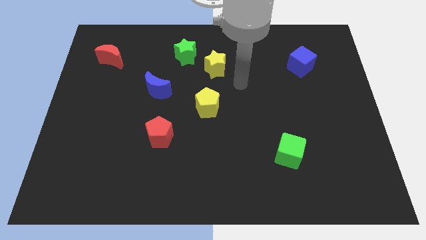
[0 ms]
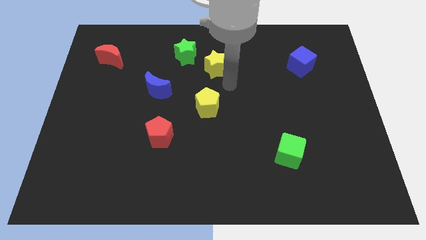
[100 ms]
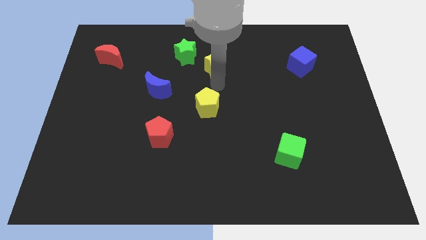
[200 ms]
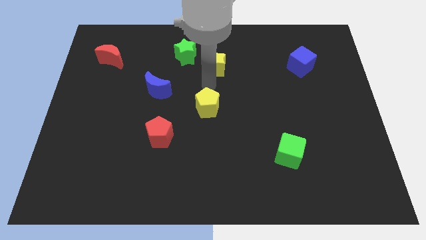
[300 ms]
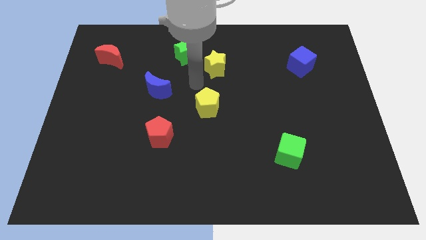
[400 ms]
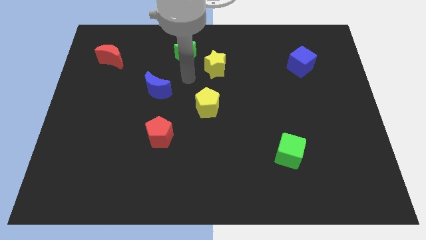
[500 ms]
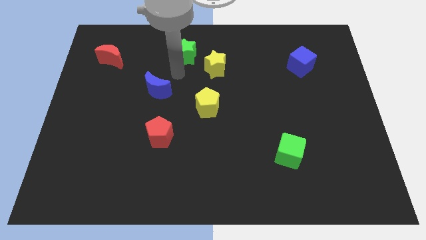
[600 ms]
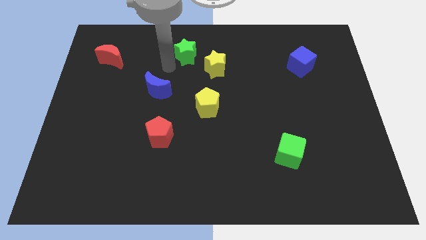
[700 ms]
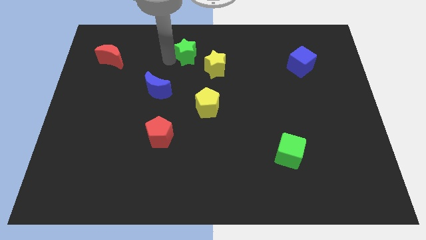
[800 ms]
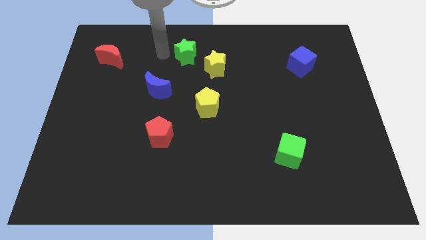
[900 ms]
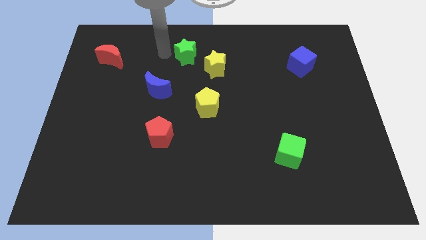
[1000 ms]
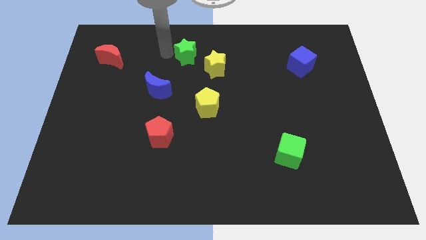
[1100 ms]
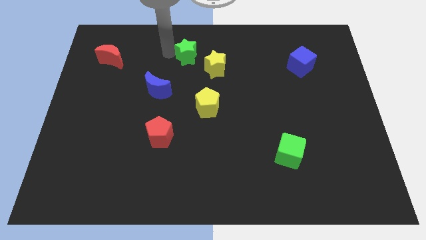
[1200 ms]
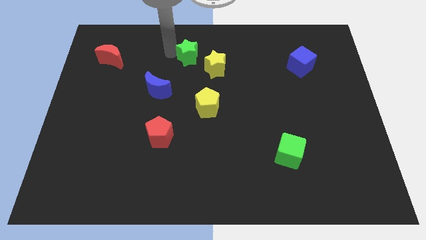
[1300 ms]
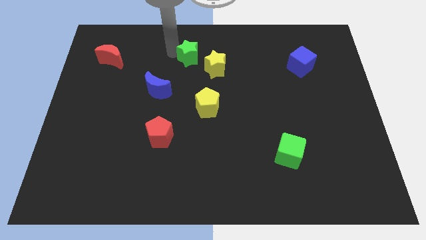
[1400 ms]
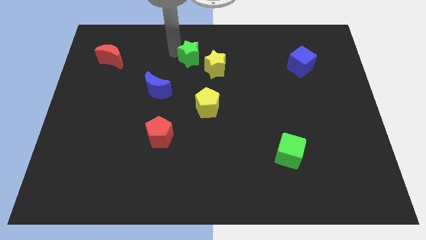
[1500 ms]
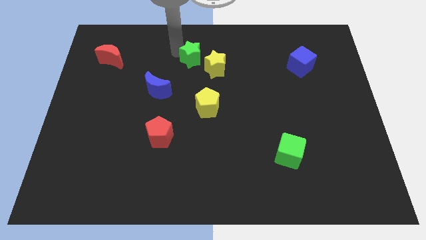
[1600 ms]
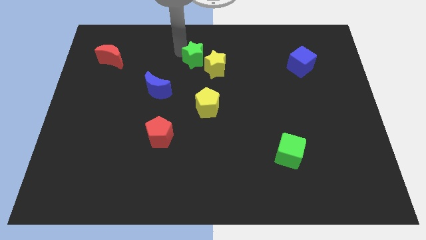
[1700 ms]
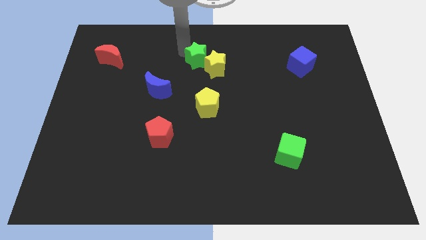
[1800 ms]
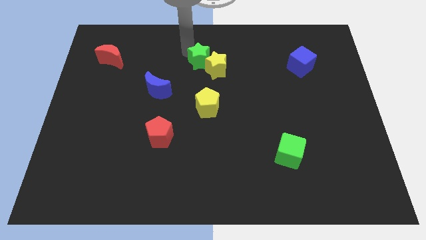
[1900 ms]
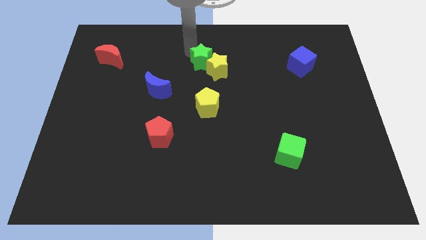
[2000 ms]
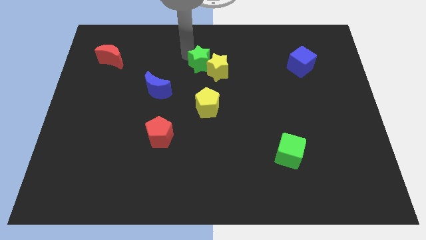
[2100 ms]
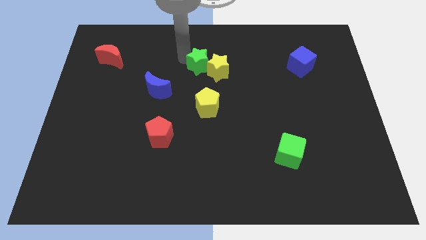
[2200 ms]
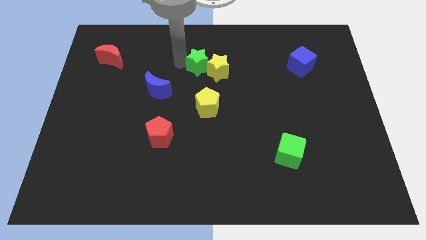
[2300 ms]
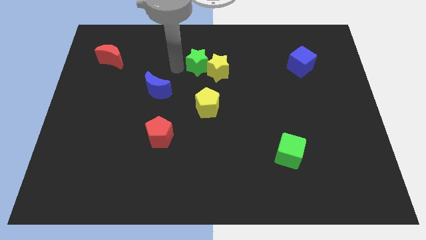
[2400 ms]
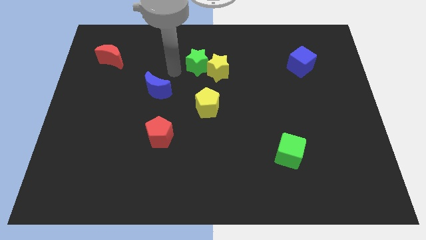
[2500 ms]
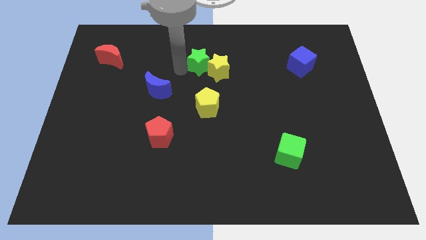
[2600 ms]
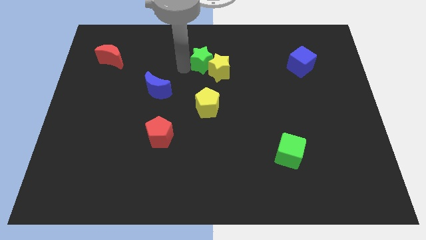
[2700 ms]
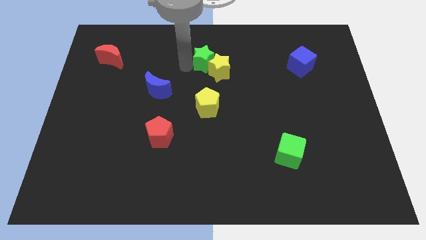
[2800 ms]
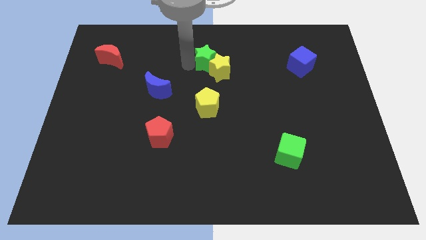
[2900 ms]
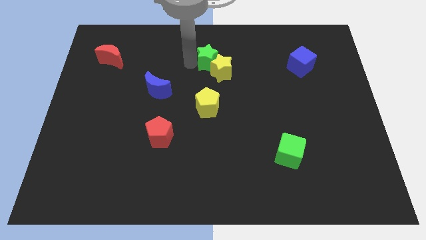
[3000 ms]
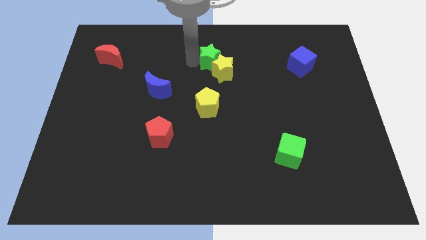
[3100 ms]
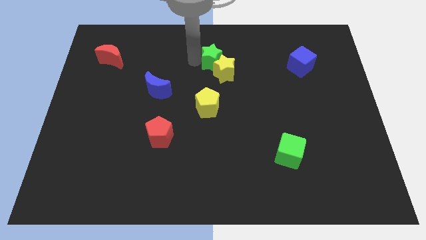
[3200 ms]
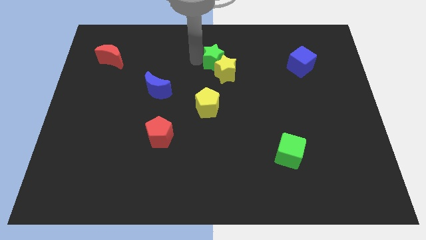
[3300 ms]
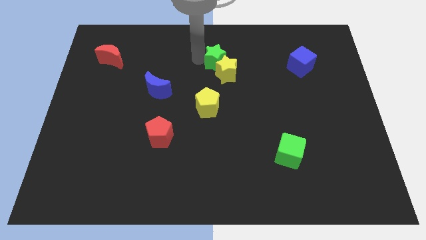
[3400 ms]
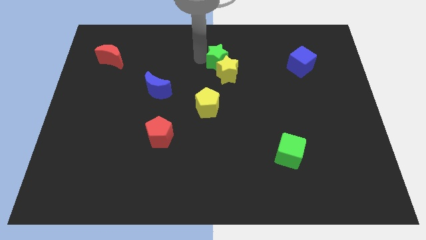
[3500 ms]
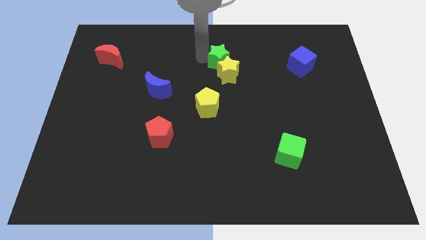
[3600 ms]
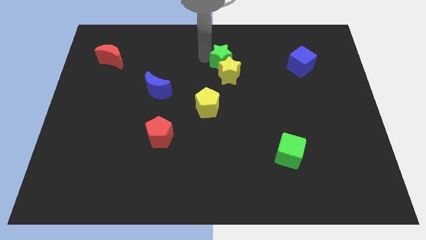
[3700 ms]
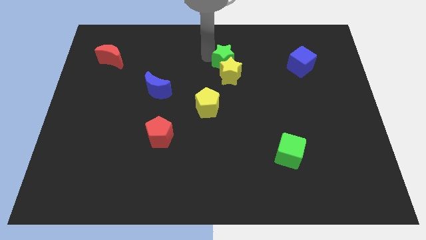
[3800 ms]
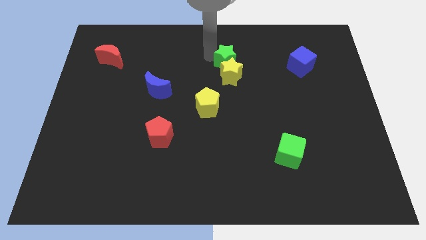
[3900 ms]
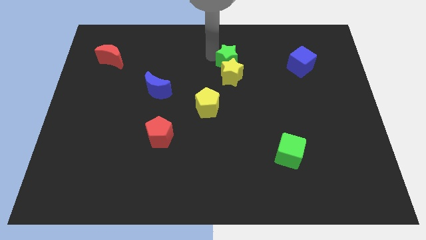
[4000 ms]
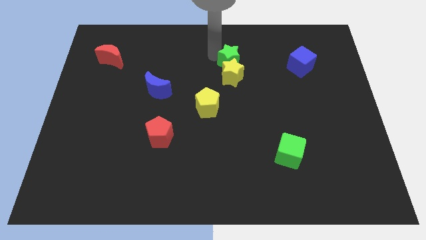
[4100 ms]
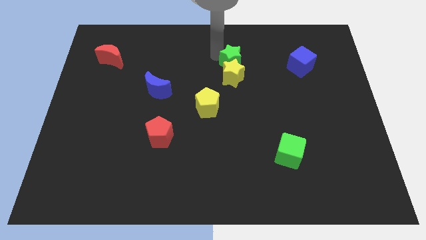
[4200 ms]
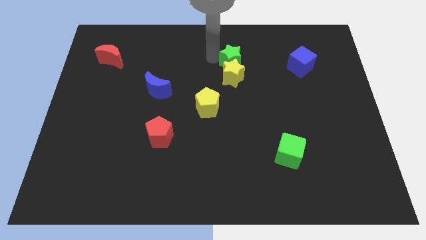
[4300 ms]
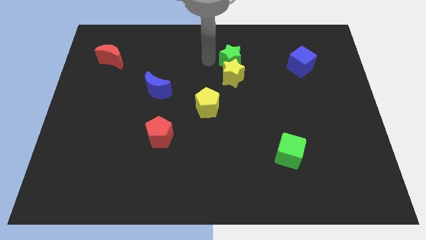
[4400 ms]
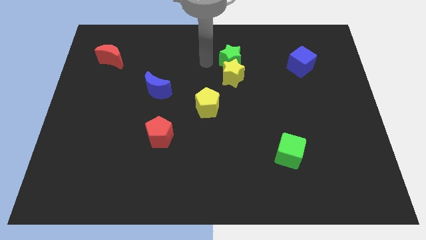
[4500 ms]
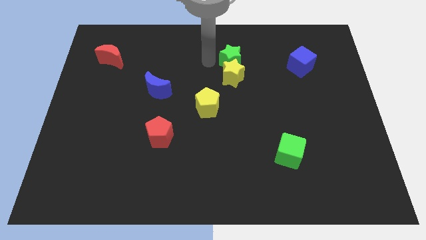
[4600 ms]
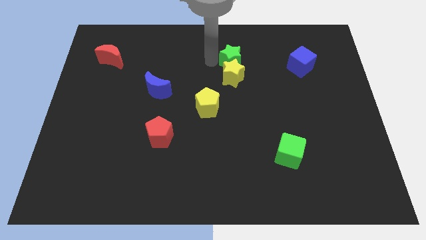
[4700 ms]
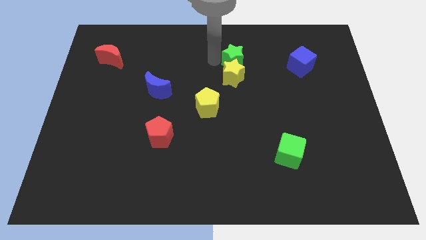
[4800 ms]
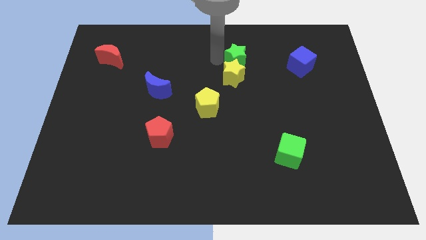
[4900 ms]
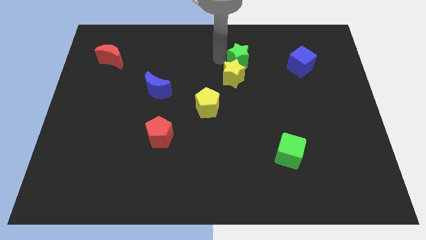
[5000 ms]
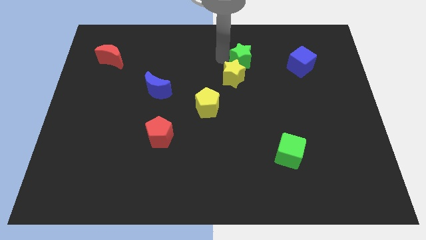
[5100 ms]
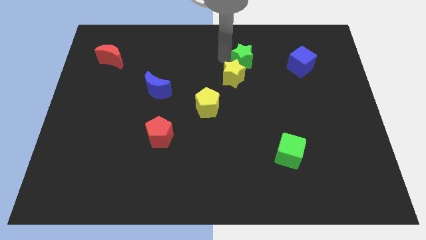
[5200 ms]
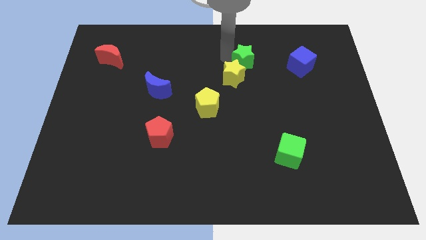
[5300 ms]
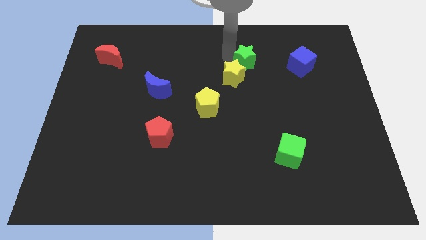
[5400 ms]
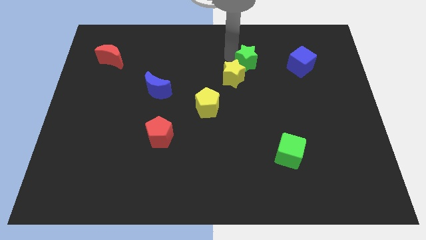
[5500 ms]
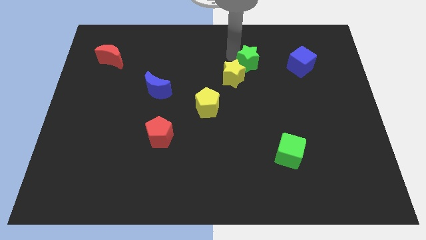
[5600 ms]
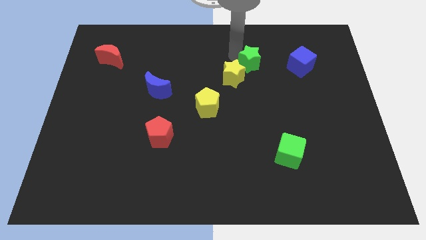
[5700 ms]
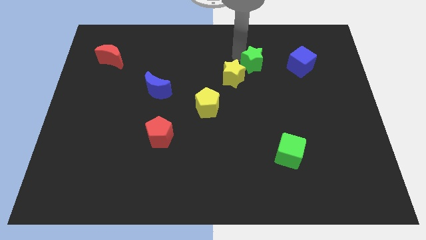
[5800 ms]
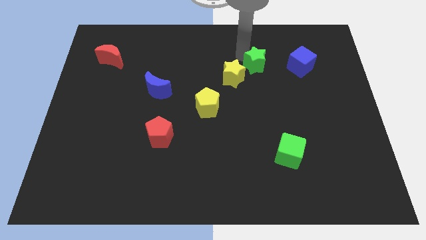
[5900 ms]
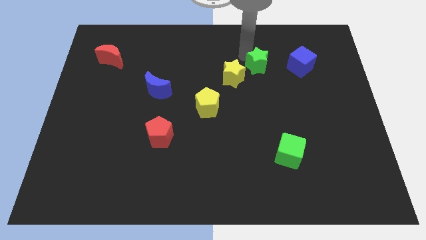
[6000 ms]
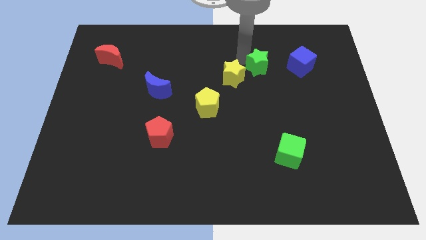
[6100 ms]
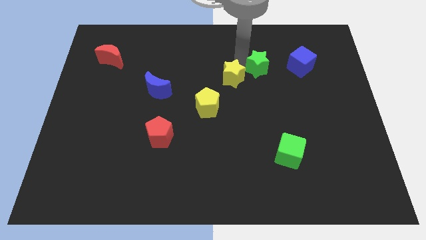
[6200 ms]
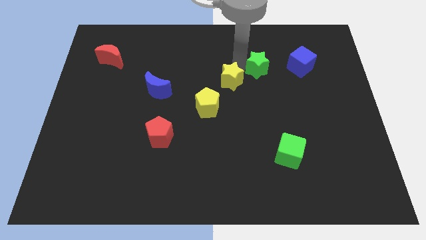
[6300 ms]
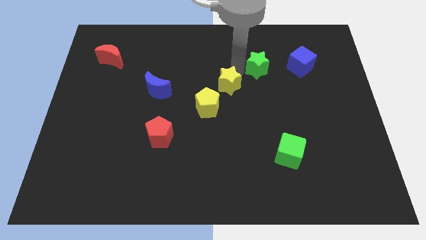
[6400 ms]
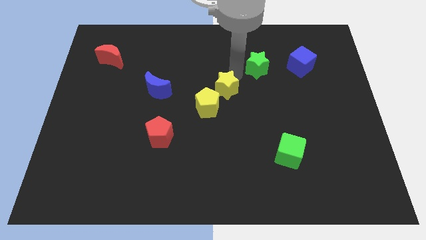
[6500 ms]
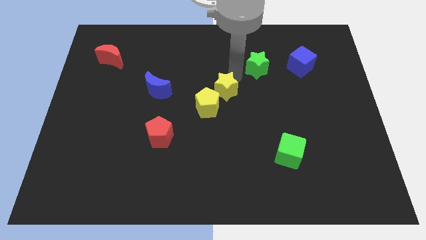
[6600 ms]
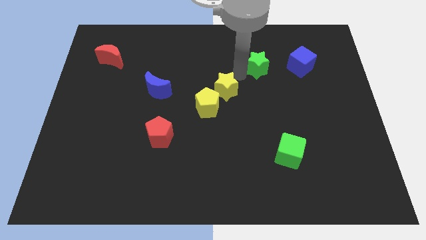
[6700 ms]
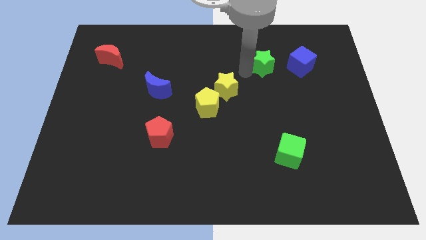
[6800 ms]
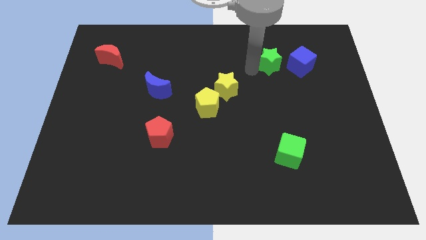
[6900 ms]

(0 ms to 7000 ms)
push the green star right

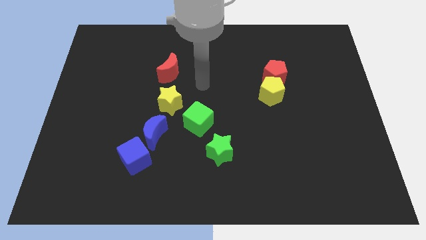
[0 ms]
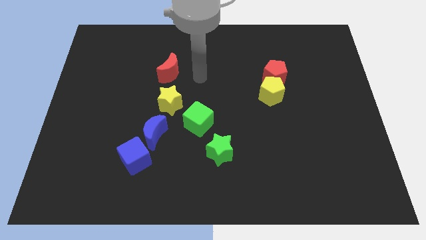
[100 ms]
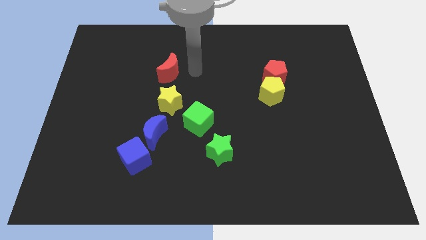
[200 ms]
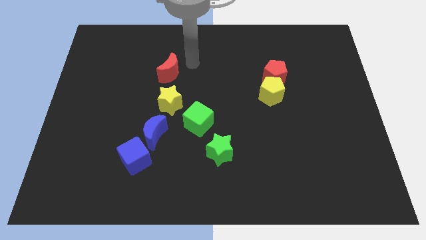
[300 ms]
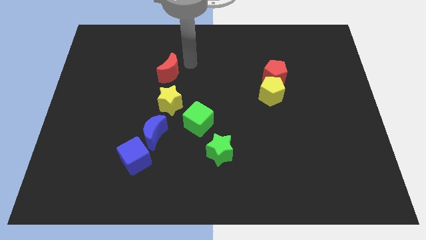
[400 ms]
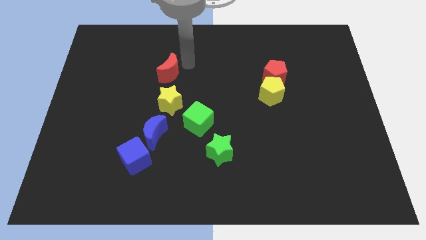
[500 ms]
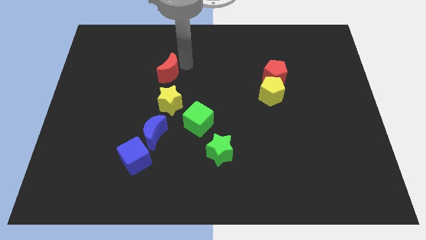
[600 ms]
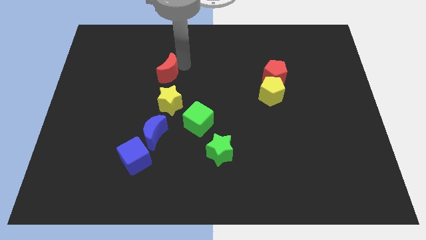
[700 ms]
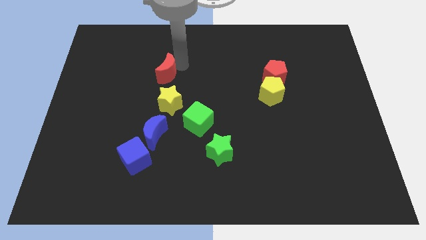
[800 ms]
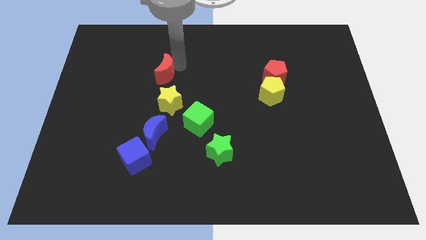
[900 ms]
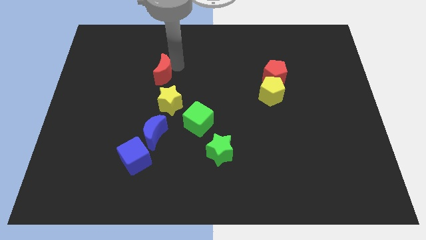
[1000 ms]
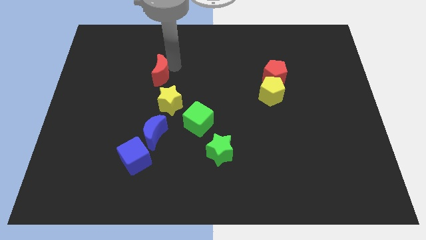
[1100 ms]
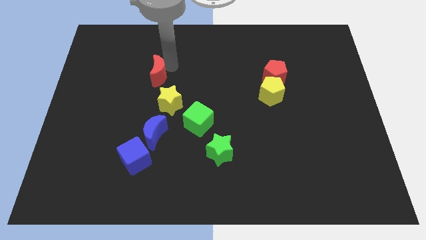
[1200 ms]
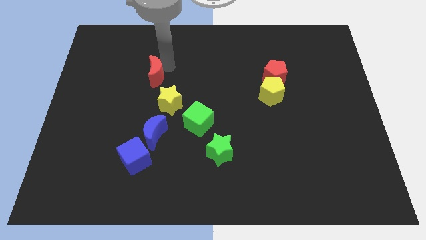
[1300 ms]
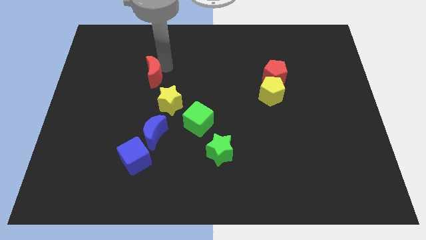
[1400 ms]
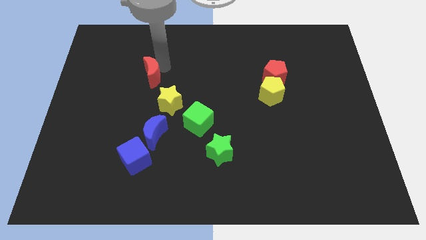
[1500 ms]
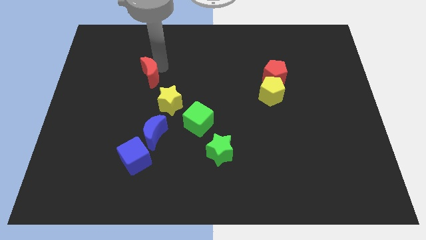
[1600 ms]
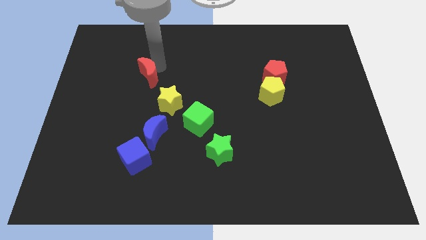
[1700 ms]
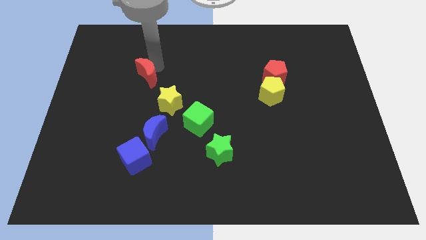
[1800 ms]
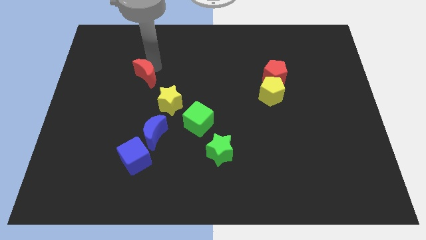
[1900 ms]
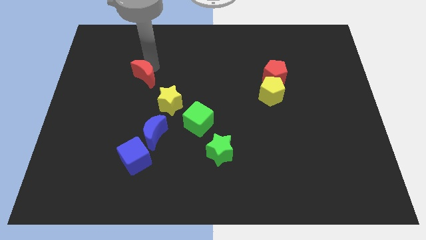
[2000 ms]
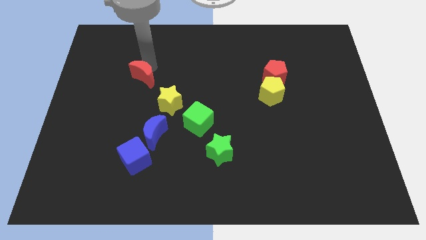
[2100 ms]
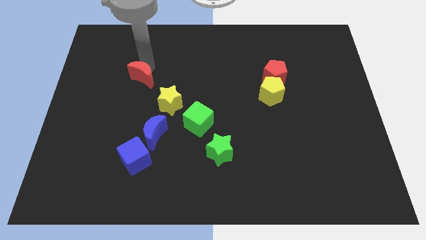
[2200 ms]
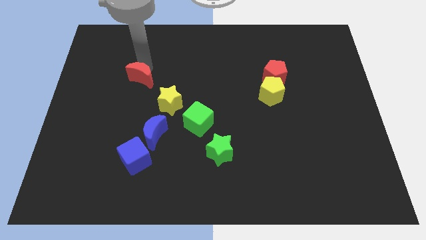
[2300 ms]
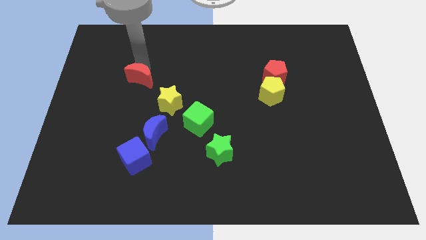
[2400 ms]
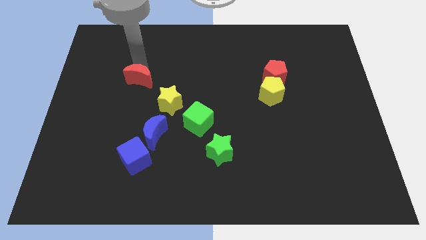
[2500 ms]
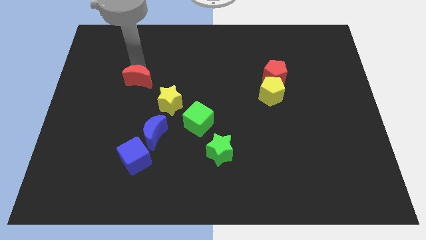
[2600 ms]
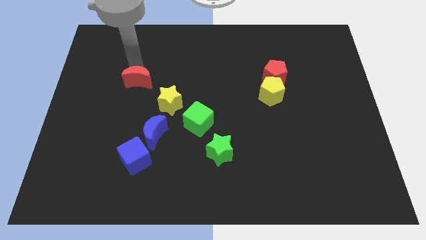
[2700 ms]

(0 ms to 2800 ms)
move the red moon slightly down and left
